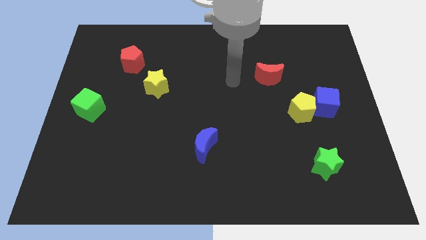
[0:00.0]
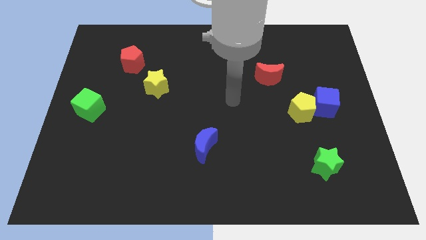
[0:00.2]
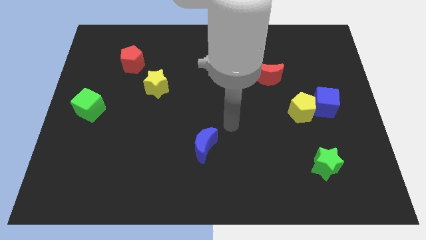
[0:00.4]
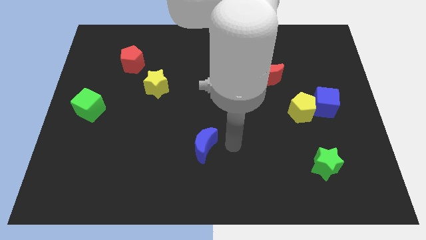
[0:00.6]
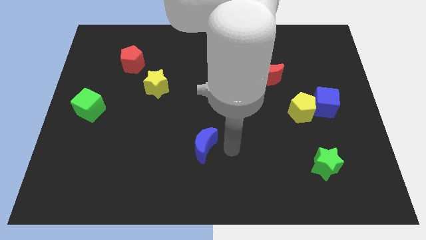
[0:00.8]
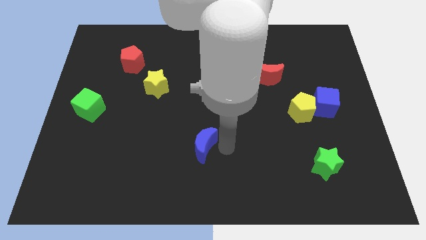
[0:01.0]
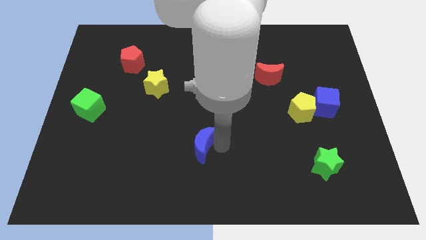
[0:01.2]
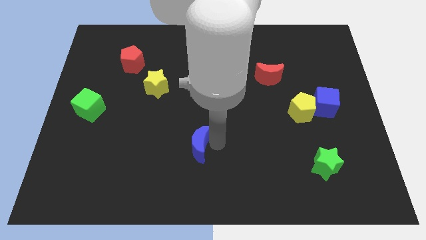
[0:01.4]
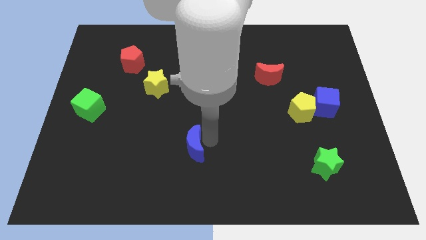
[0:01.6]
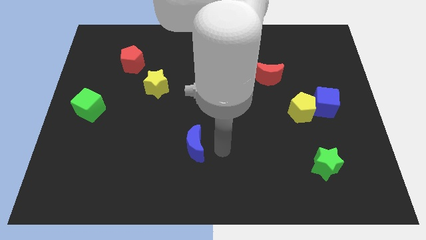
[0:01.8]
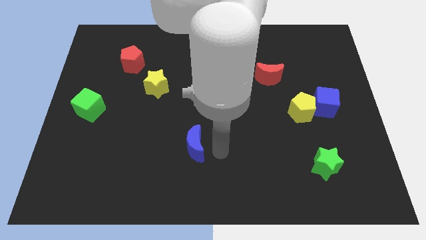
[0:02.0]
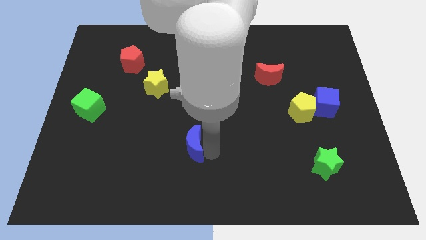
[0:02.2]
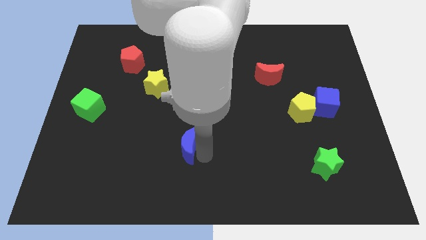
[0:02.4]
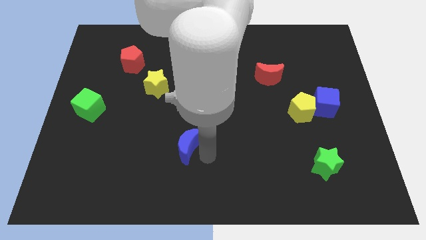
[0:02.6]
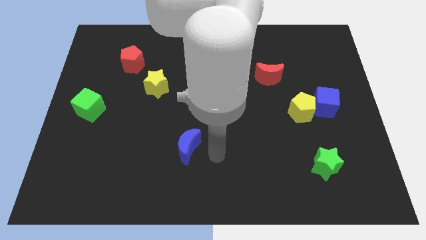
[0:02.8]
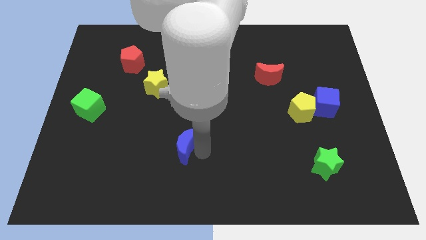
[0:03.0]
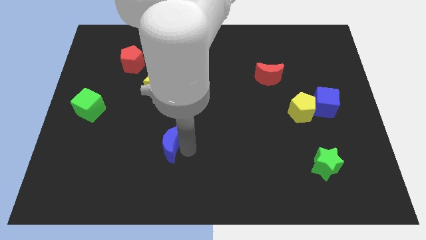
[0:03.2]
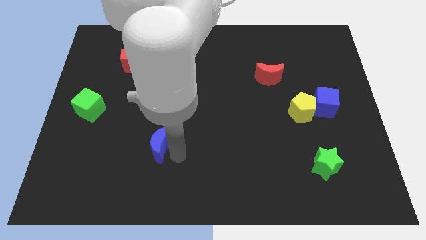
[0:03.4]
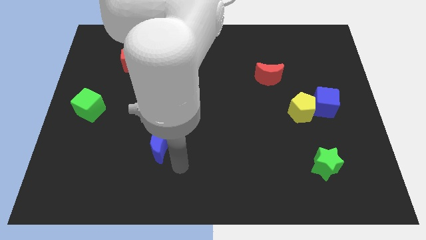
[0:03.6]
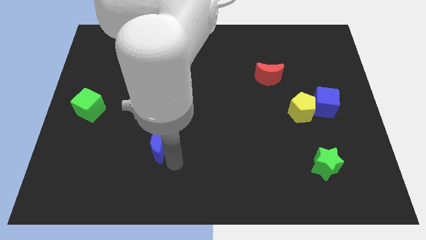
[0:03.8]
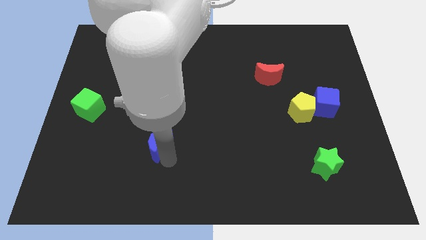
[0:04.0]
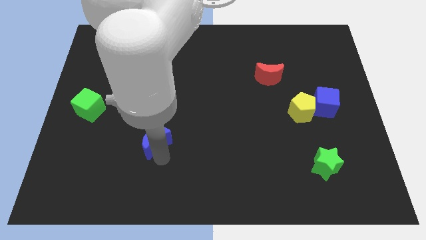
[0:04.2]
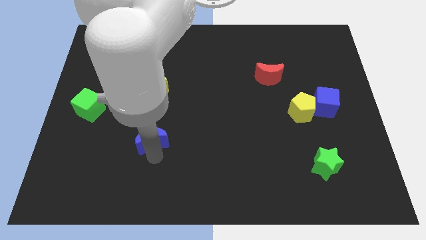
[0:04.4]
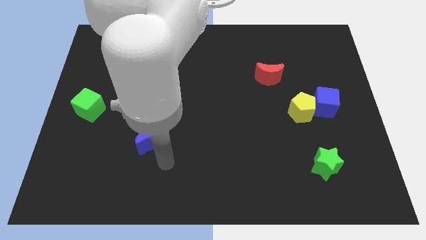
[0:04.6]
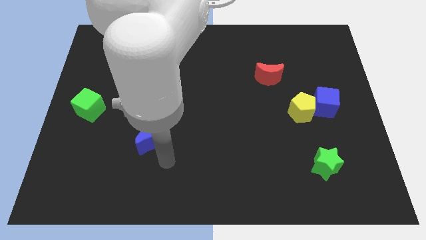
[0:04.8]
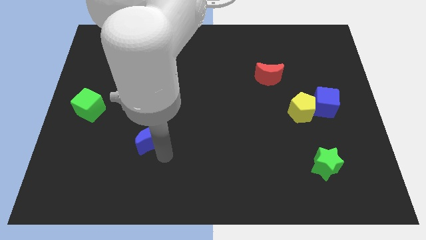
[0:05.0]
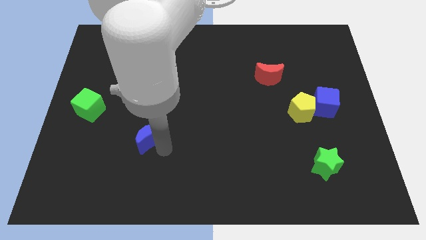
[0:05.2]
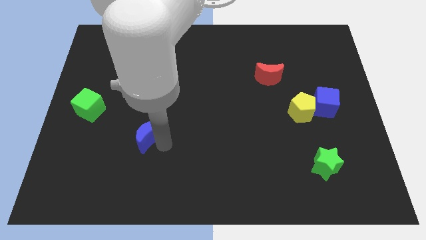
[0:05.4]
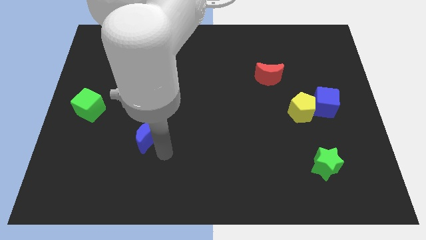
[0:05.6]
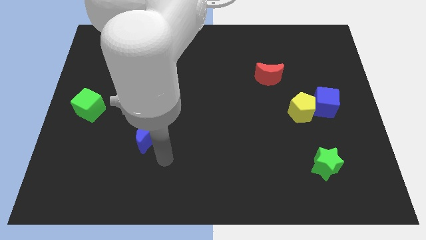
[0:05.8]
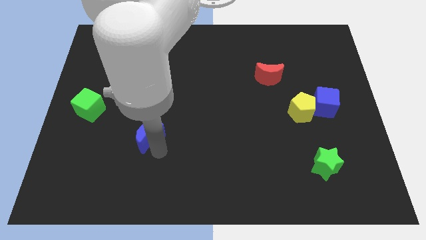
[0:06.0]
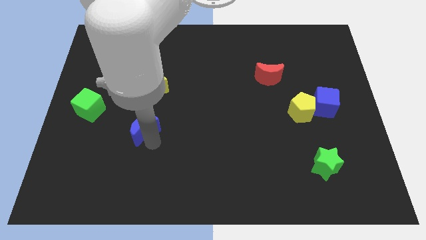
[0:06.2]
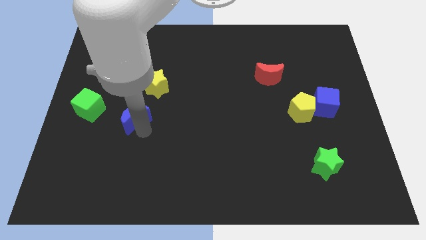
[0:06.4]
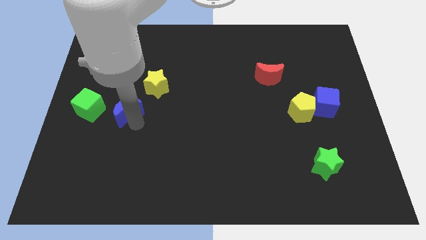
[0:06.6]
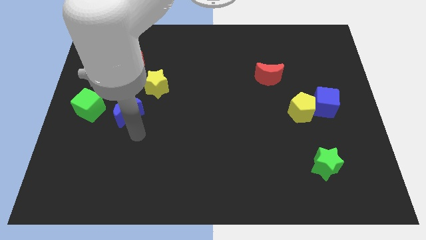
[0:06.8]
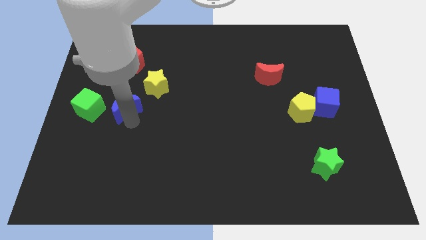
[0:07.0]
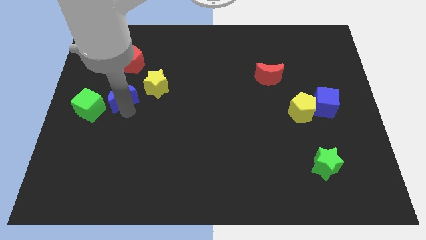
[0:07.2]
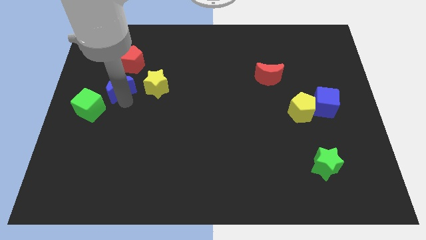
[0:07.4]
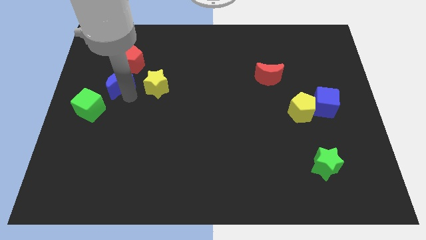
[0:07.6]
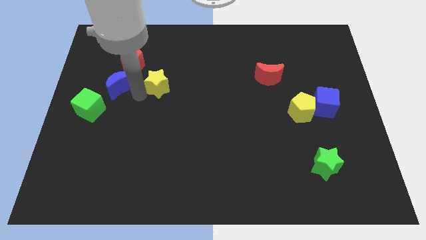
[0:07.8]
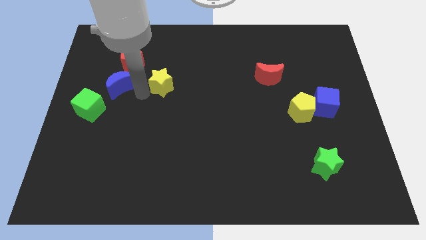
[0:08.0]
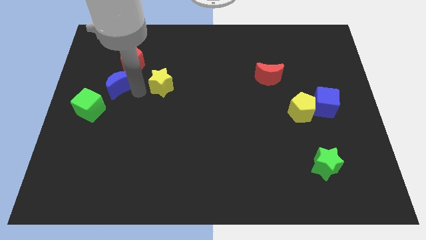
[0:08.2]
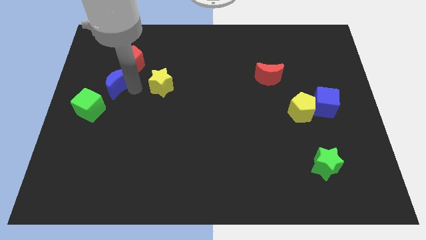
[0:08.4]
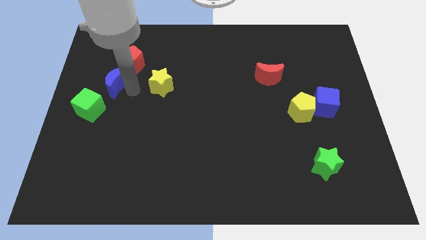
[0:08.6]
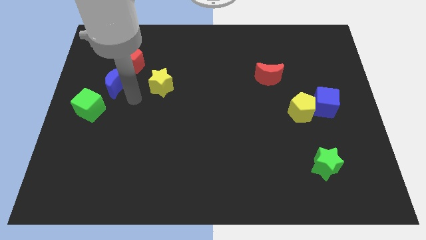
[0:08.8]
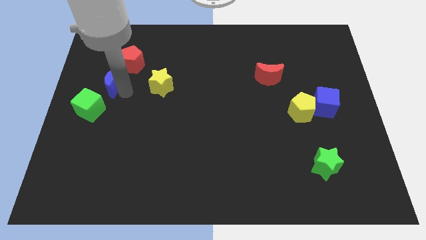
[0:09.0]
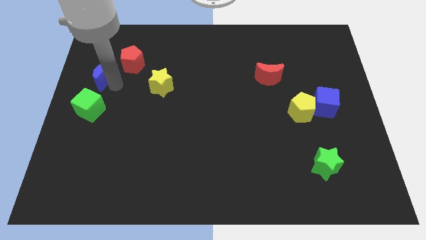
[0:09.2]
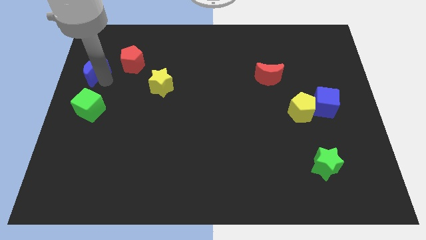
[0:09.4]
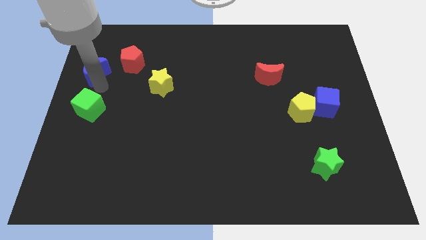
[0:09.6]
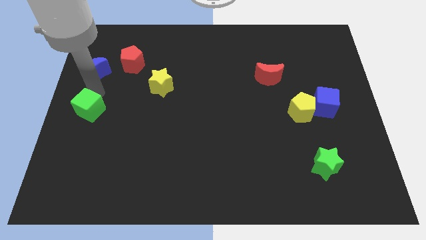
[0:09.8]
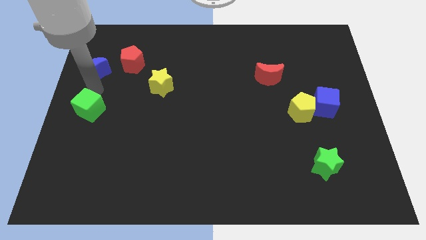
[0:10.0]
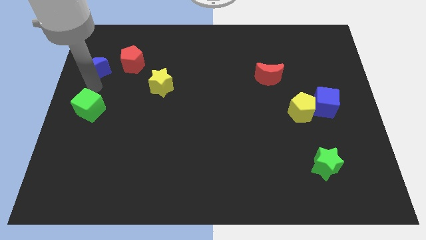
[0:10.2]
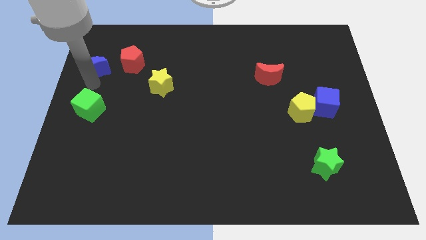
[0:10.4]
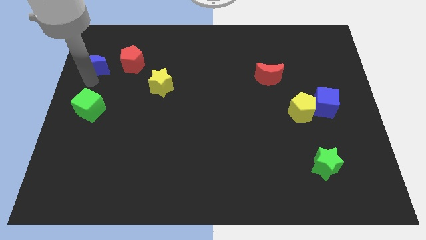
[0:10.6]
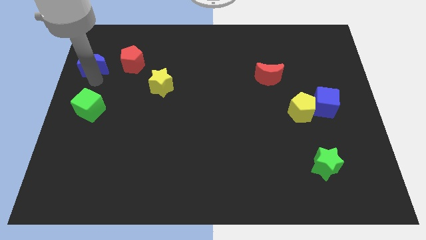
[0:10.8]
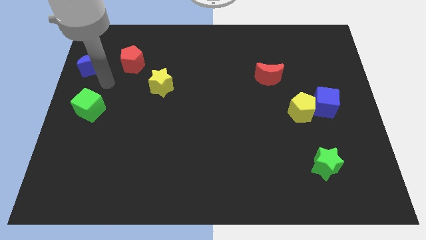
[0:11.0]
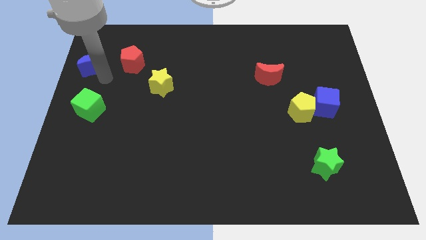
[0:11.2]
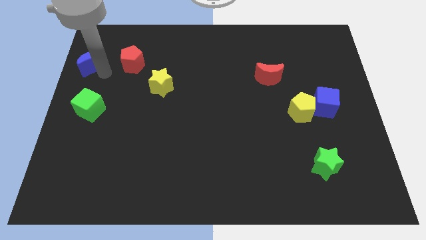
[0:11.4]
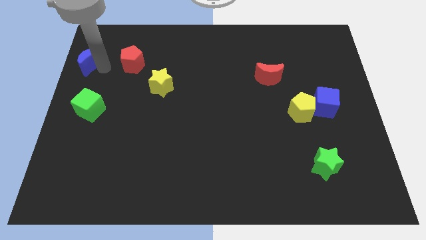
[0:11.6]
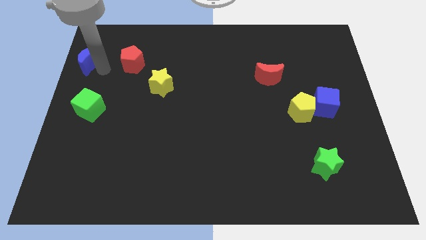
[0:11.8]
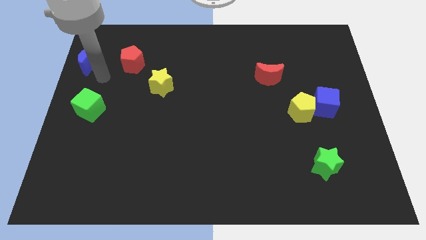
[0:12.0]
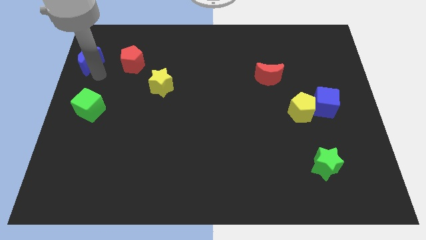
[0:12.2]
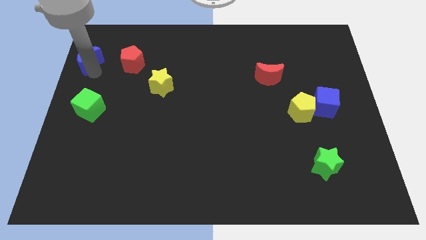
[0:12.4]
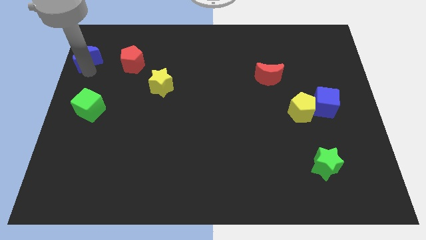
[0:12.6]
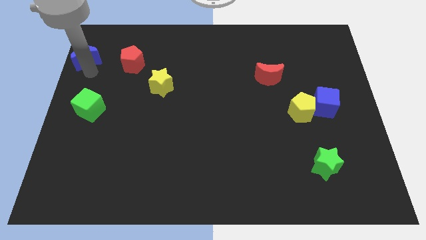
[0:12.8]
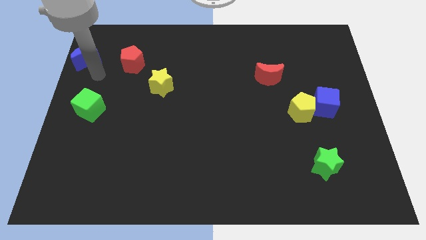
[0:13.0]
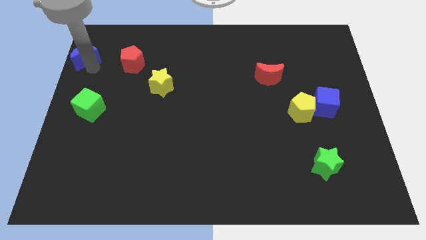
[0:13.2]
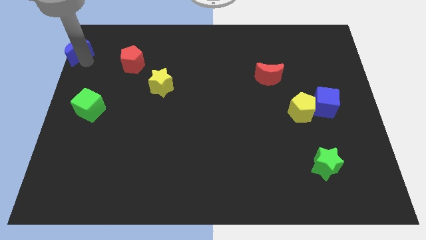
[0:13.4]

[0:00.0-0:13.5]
slide the blue moon to the upper left corner
